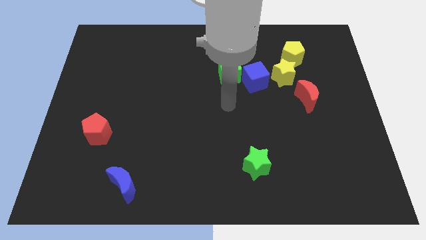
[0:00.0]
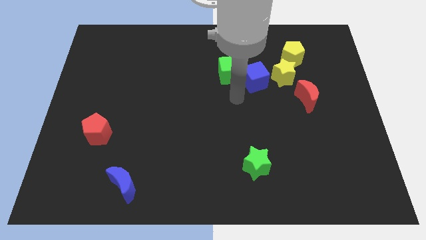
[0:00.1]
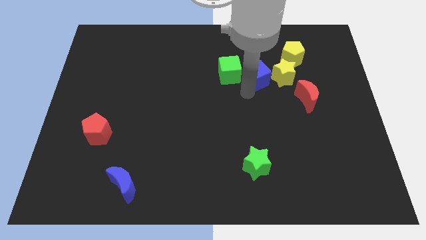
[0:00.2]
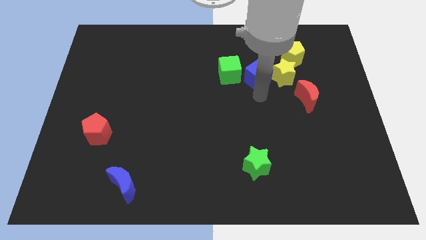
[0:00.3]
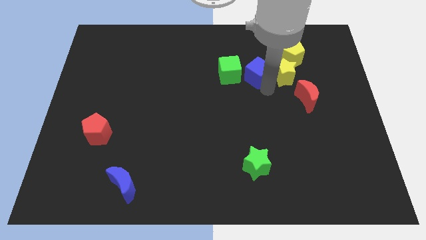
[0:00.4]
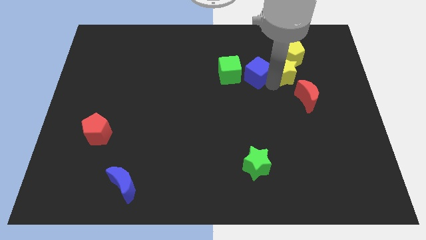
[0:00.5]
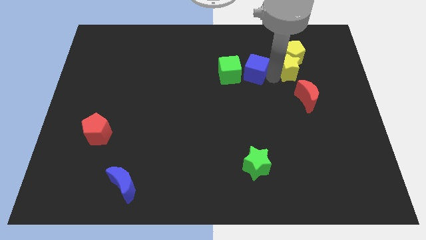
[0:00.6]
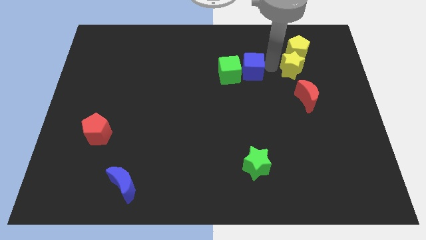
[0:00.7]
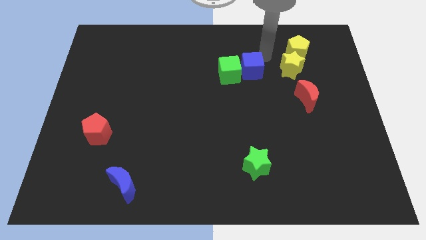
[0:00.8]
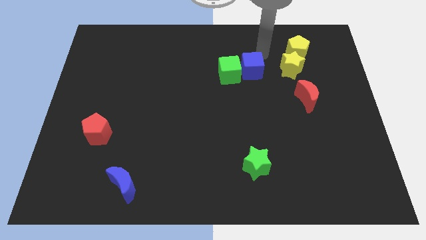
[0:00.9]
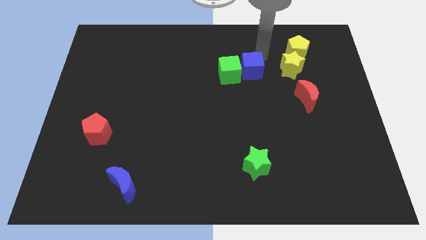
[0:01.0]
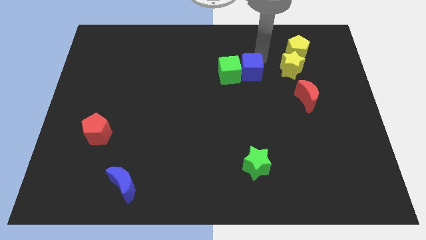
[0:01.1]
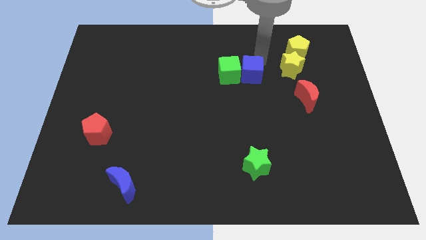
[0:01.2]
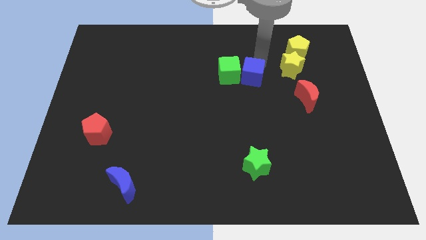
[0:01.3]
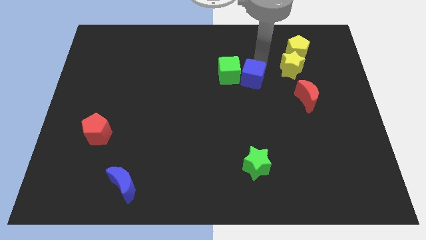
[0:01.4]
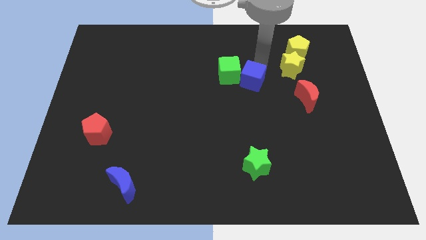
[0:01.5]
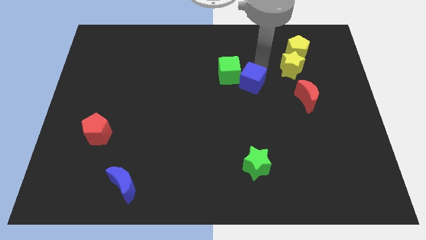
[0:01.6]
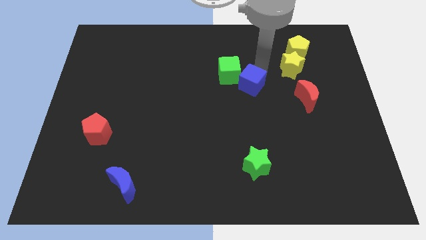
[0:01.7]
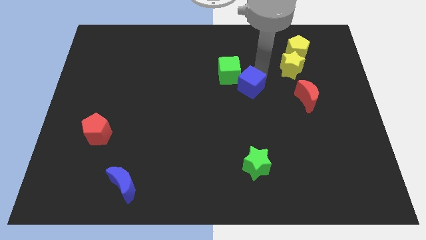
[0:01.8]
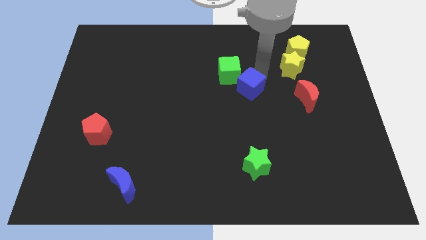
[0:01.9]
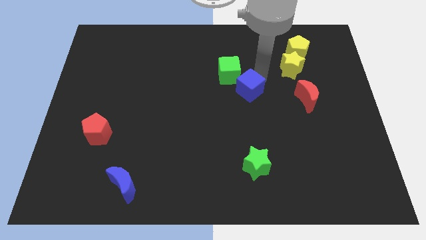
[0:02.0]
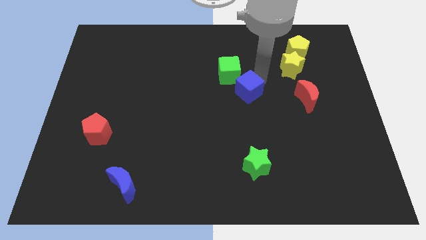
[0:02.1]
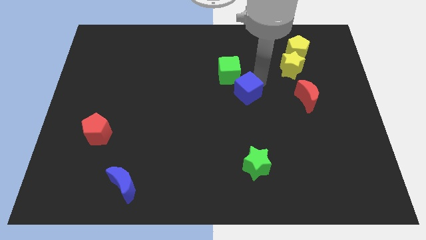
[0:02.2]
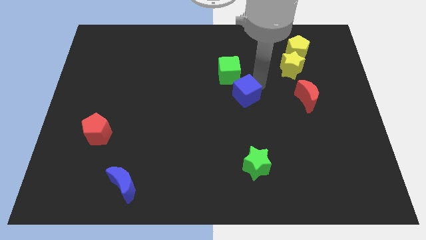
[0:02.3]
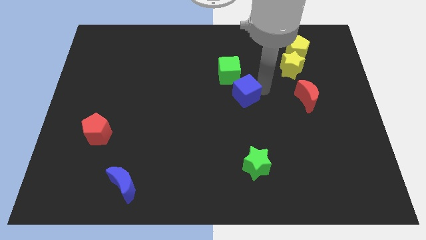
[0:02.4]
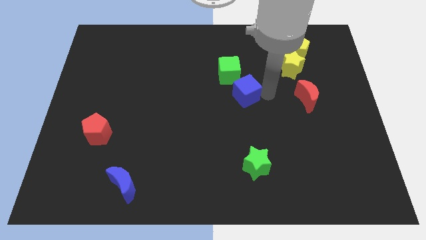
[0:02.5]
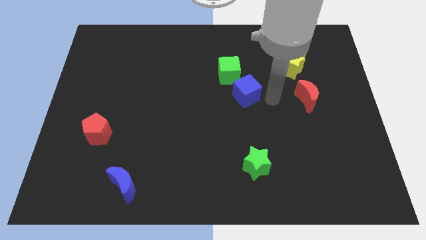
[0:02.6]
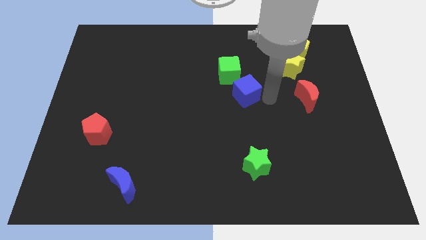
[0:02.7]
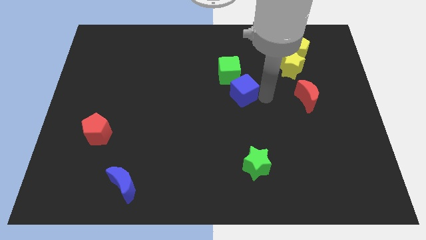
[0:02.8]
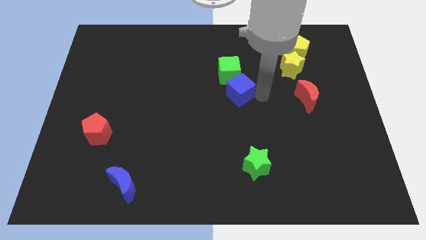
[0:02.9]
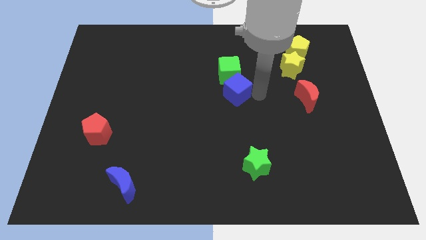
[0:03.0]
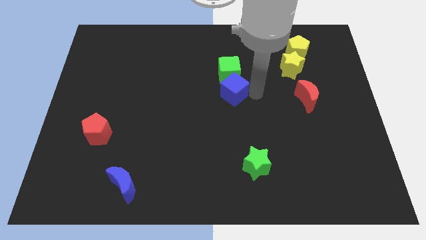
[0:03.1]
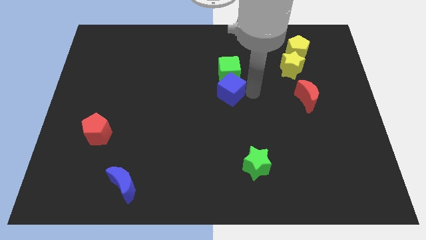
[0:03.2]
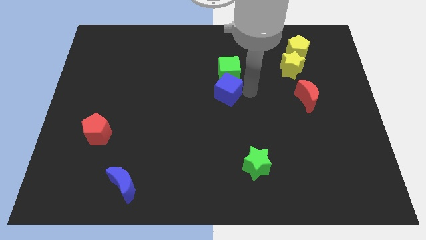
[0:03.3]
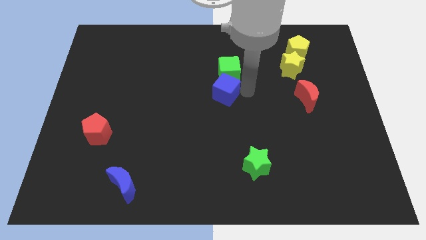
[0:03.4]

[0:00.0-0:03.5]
slide the blue cube slightly to the left

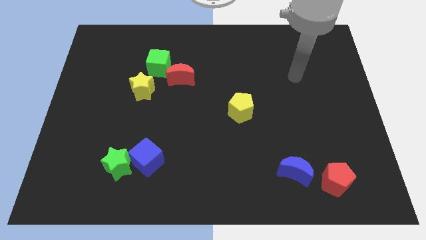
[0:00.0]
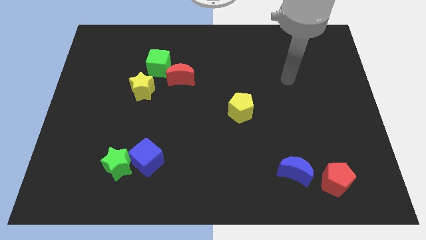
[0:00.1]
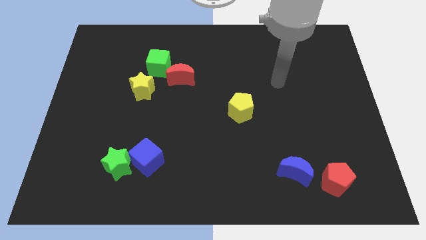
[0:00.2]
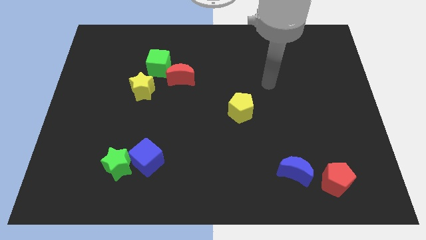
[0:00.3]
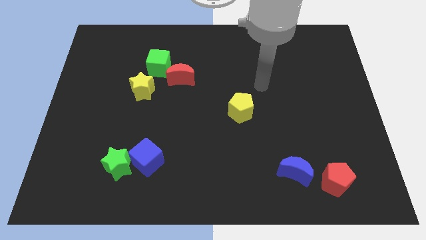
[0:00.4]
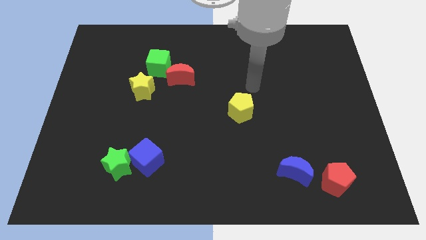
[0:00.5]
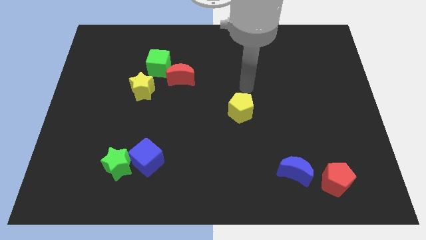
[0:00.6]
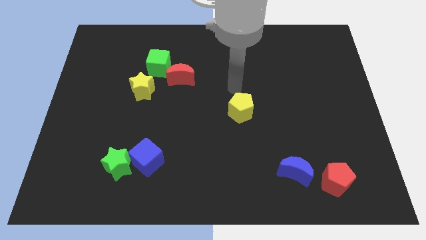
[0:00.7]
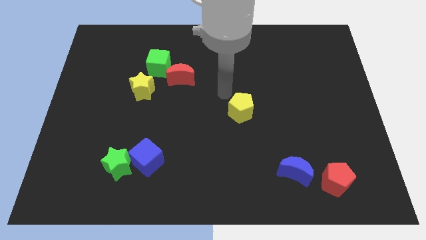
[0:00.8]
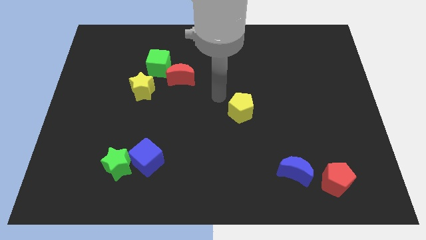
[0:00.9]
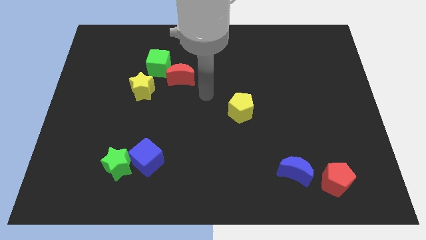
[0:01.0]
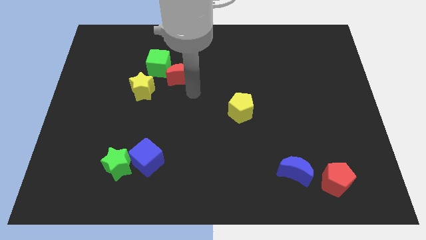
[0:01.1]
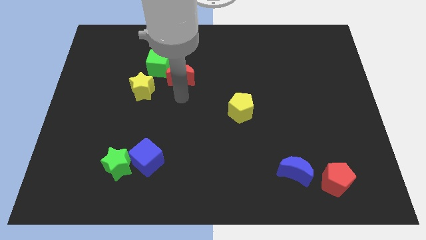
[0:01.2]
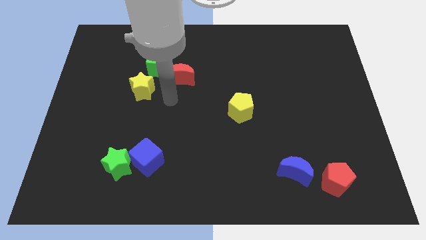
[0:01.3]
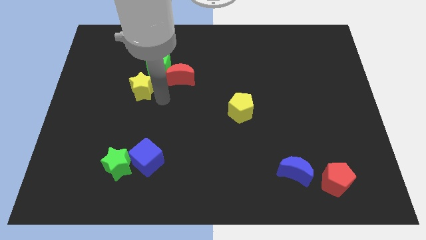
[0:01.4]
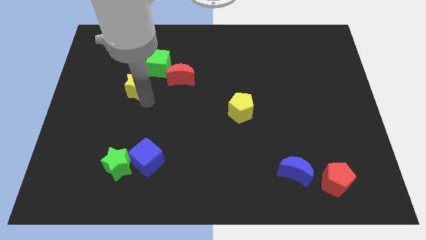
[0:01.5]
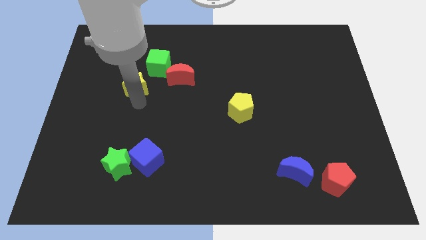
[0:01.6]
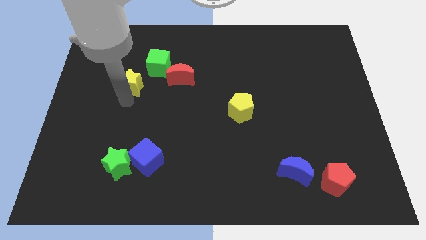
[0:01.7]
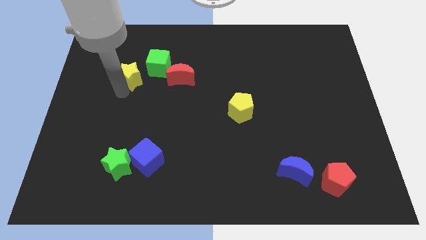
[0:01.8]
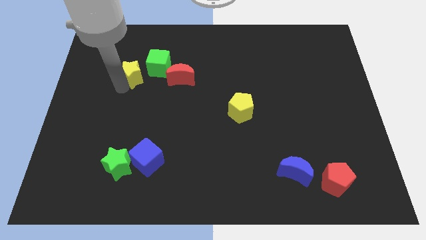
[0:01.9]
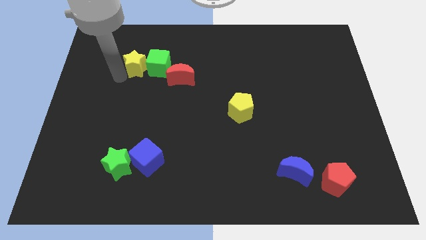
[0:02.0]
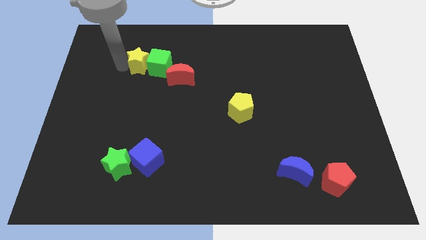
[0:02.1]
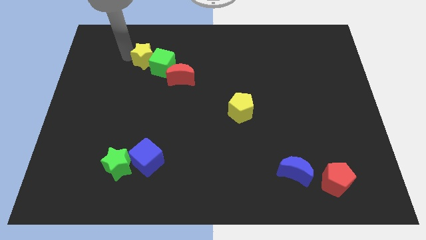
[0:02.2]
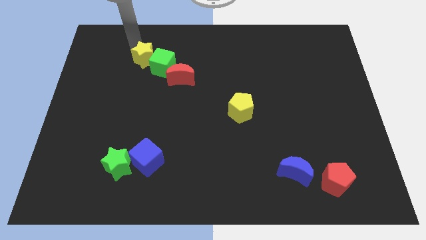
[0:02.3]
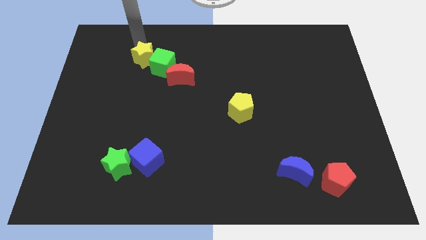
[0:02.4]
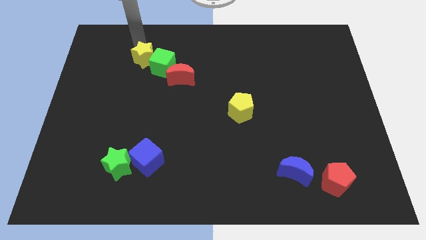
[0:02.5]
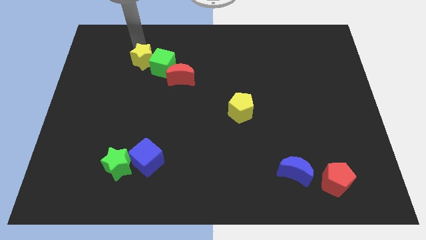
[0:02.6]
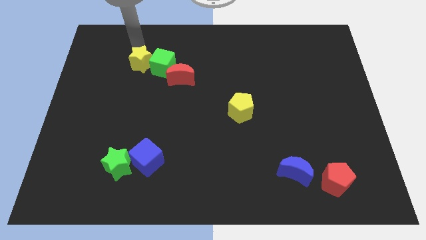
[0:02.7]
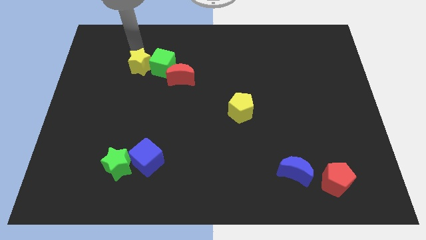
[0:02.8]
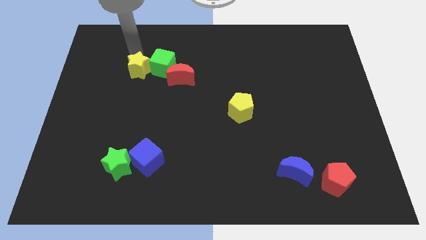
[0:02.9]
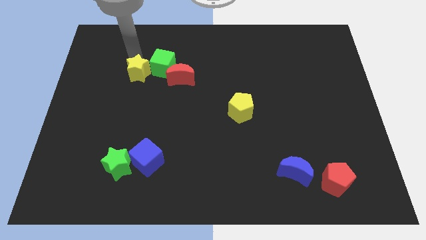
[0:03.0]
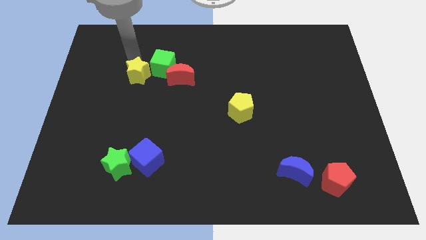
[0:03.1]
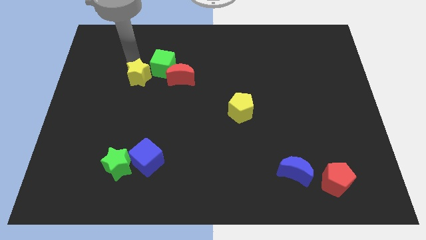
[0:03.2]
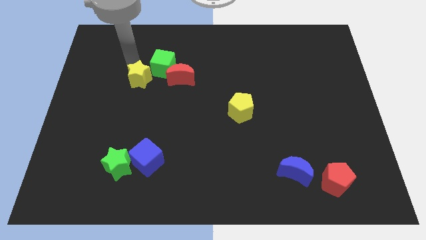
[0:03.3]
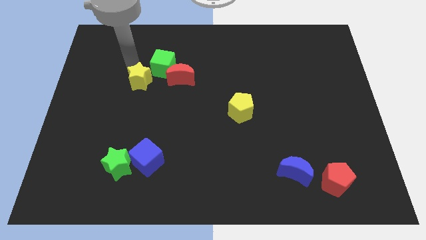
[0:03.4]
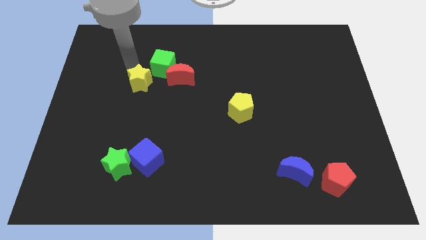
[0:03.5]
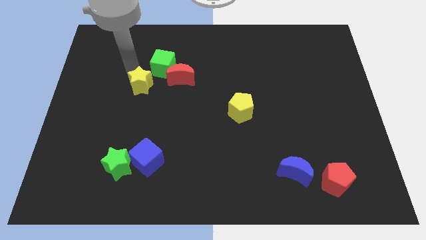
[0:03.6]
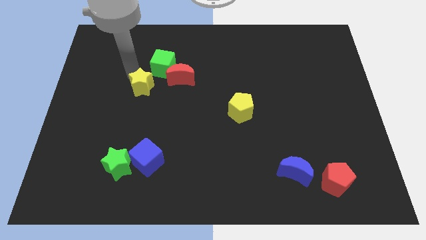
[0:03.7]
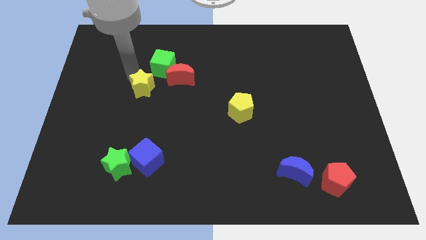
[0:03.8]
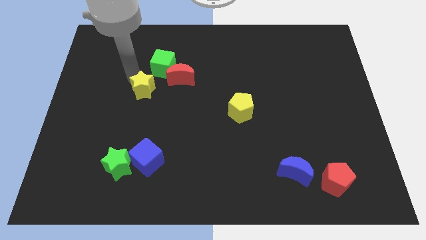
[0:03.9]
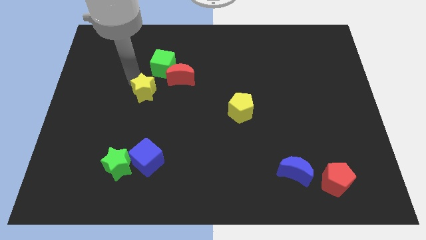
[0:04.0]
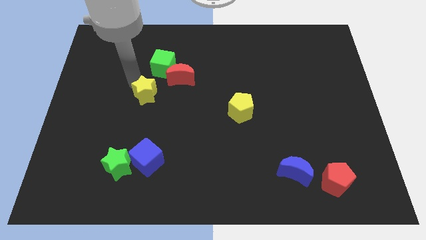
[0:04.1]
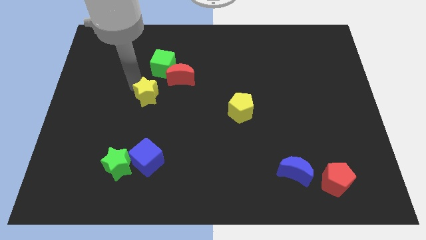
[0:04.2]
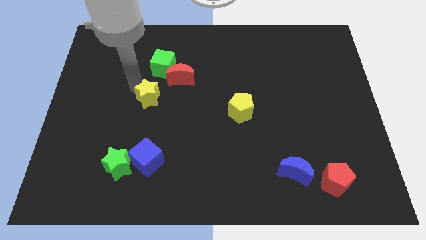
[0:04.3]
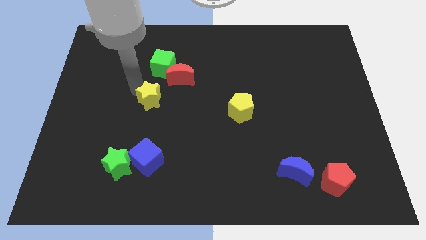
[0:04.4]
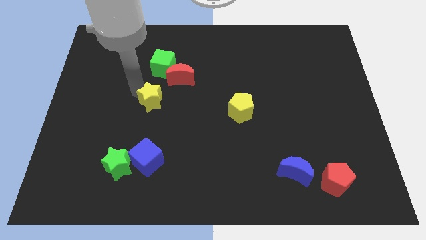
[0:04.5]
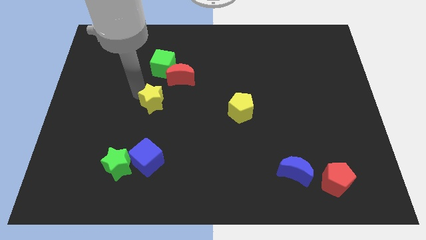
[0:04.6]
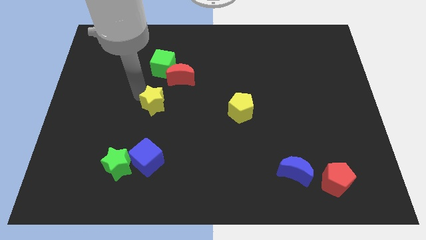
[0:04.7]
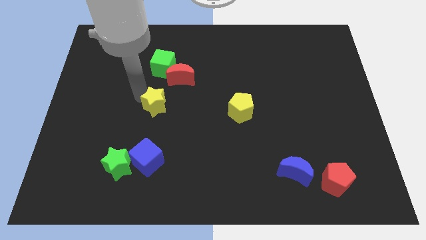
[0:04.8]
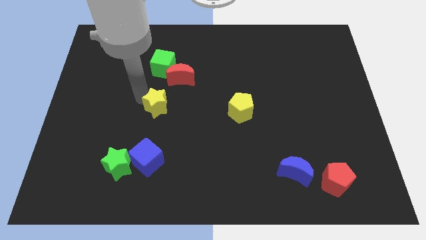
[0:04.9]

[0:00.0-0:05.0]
slightly push the yellow star diagonally down and right
